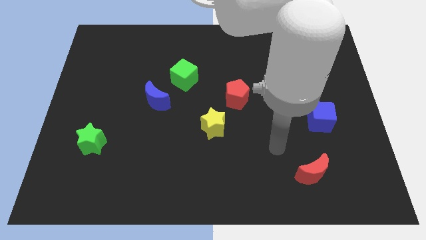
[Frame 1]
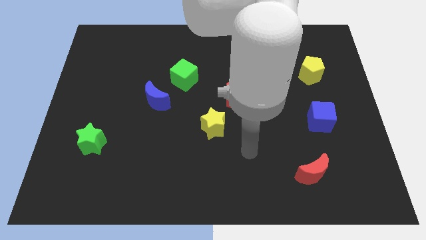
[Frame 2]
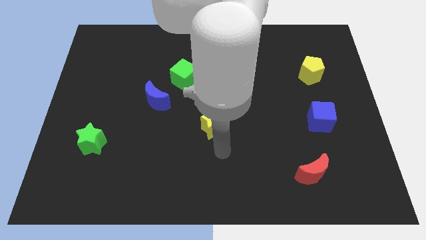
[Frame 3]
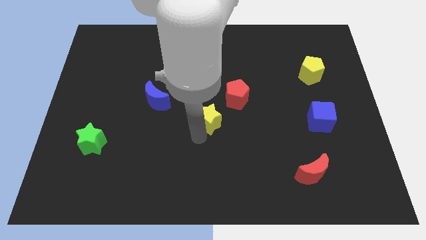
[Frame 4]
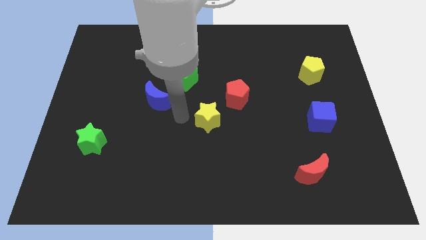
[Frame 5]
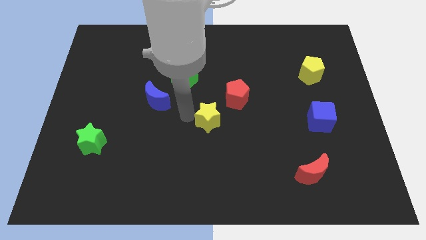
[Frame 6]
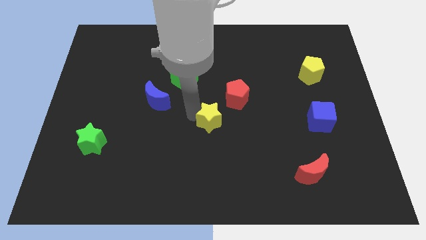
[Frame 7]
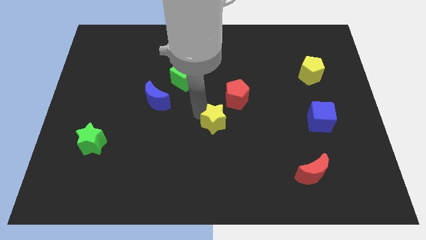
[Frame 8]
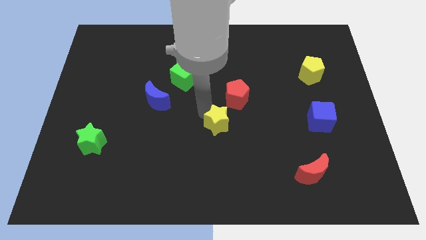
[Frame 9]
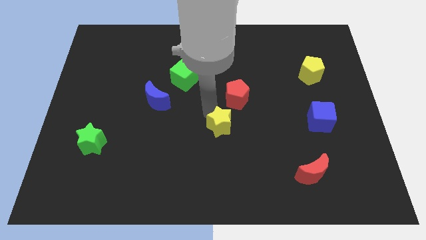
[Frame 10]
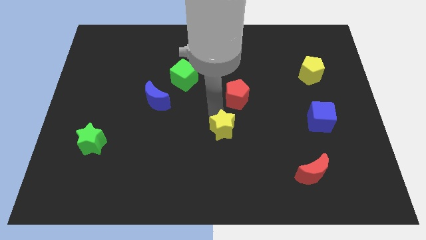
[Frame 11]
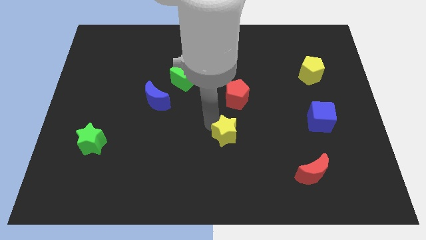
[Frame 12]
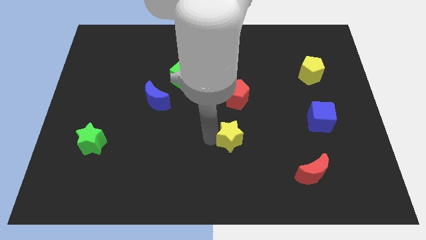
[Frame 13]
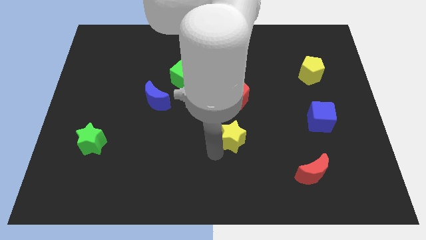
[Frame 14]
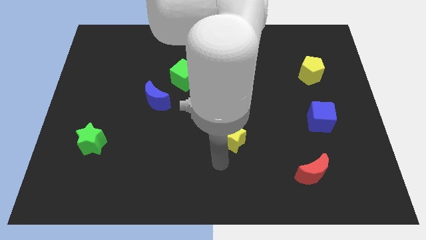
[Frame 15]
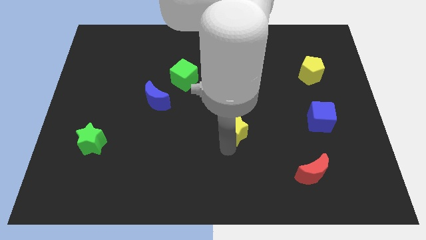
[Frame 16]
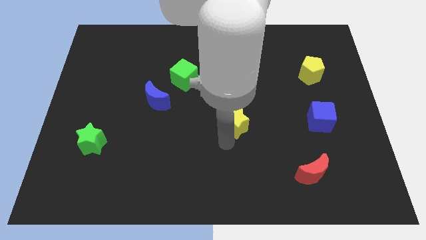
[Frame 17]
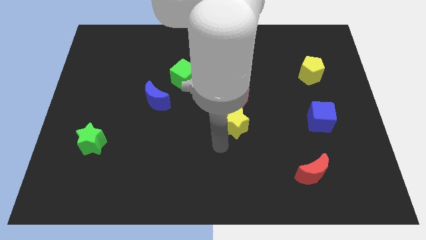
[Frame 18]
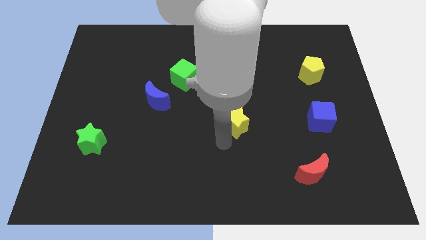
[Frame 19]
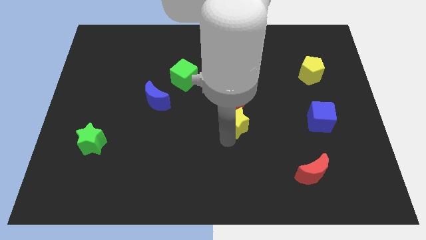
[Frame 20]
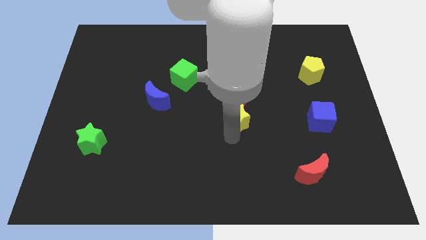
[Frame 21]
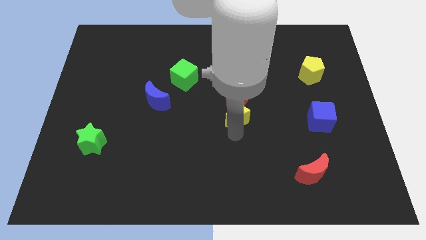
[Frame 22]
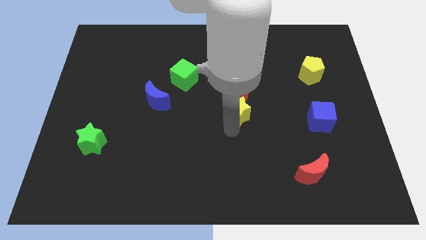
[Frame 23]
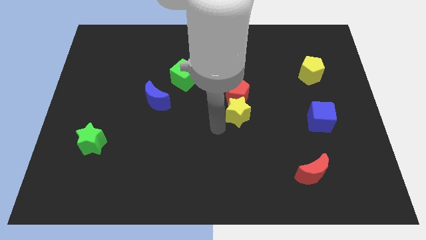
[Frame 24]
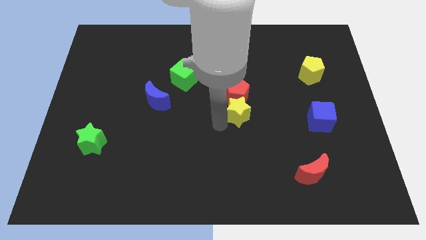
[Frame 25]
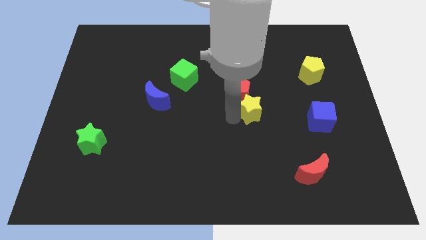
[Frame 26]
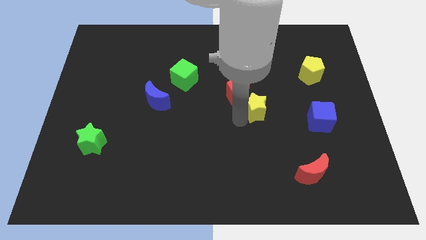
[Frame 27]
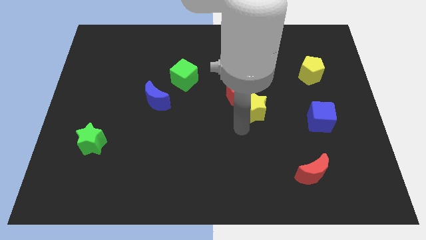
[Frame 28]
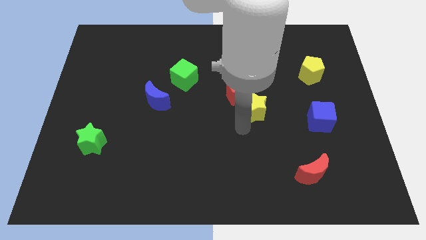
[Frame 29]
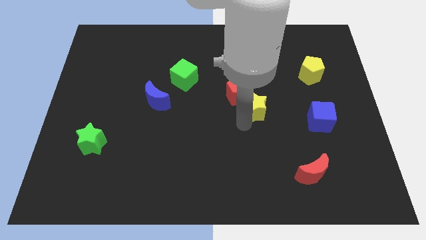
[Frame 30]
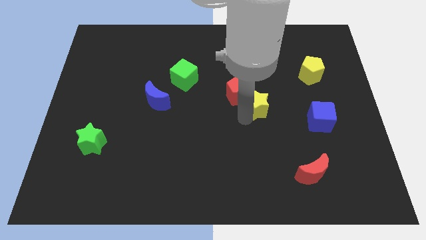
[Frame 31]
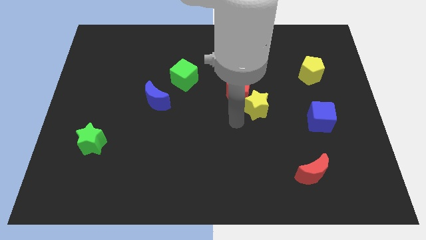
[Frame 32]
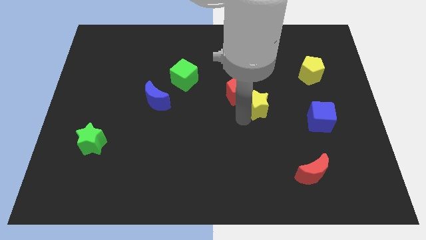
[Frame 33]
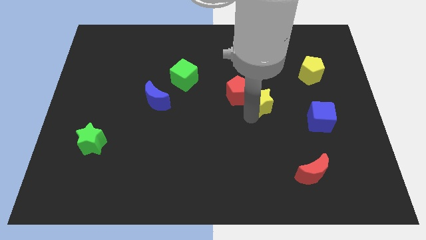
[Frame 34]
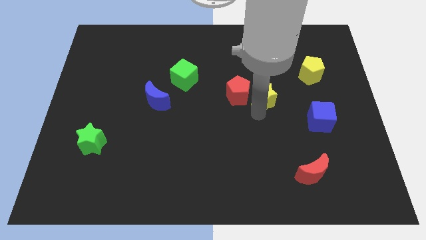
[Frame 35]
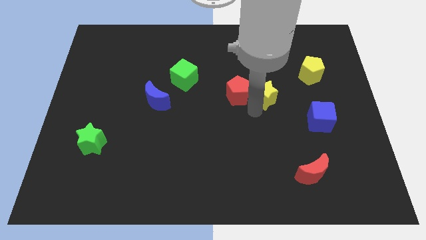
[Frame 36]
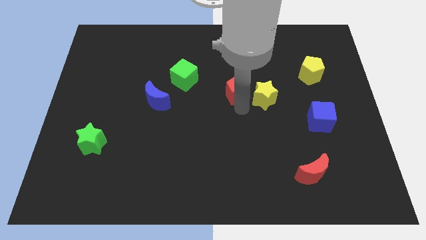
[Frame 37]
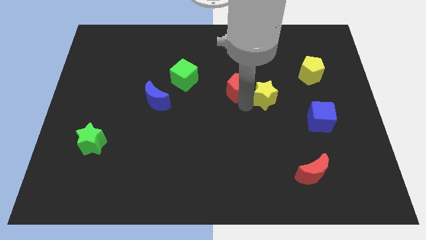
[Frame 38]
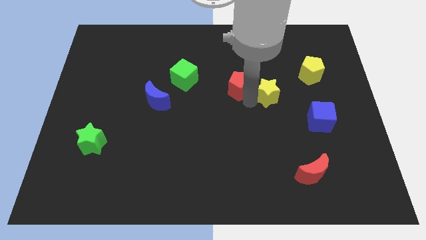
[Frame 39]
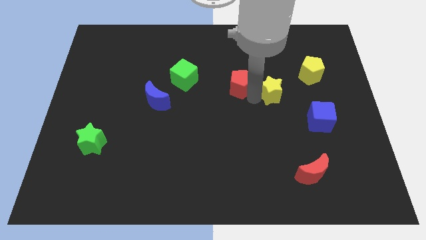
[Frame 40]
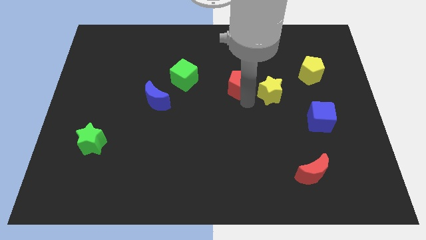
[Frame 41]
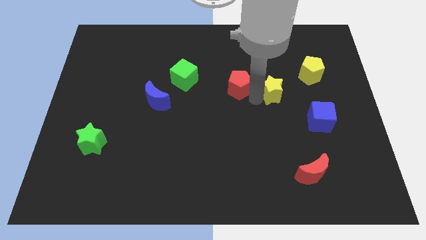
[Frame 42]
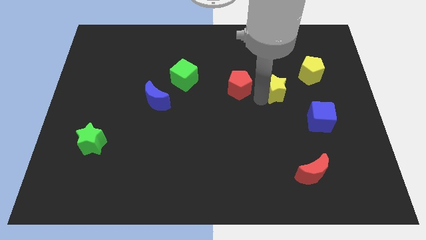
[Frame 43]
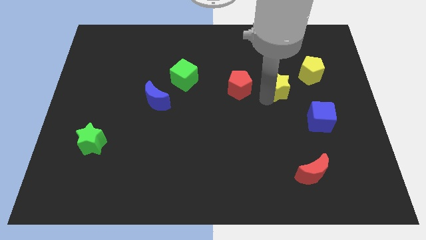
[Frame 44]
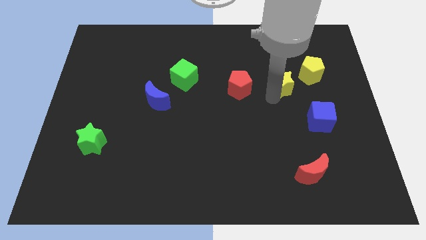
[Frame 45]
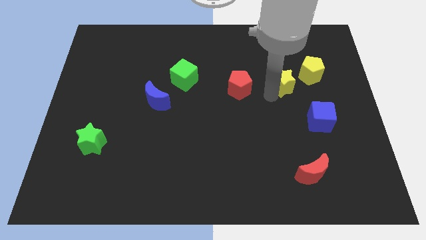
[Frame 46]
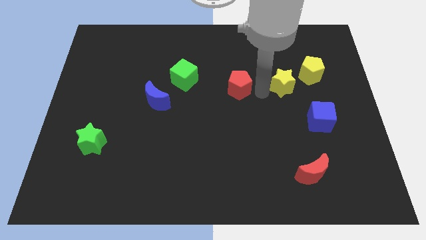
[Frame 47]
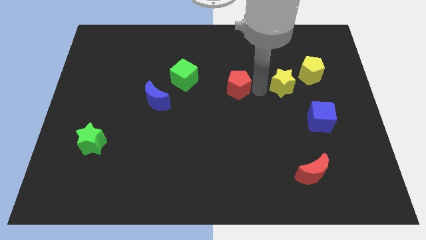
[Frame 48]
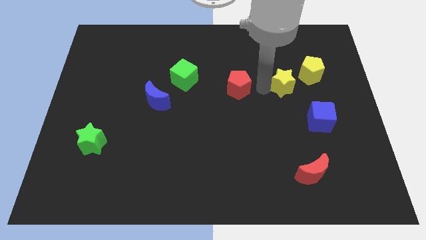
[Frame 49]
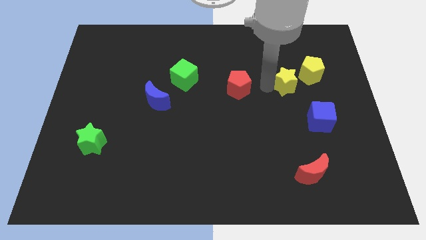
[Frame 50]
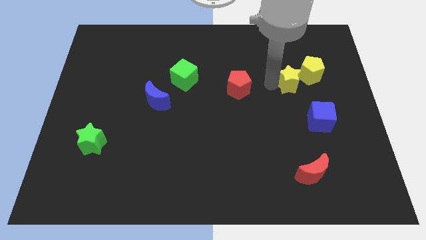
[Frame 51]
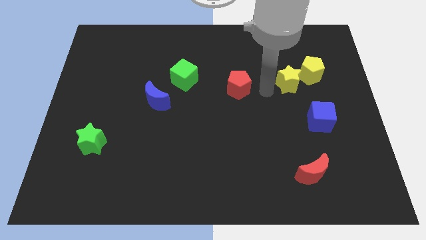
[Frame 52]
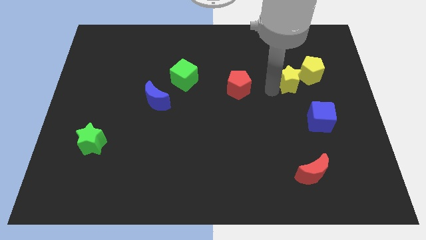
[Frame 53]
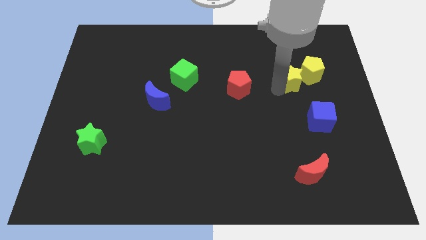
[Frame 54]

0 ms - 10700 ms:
slide the yellow star towards the yellow pentagon

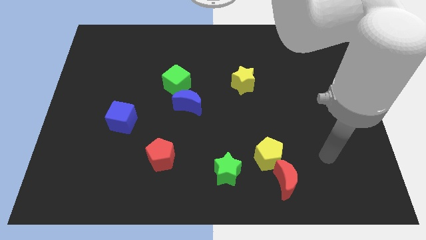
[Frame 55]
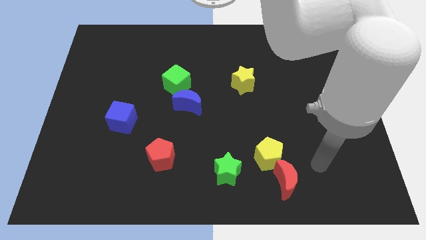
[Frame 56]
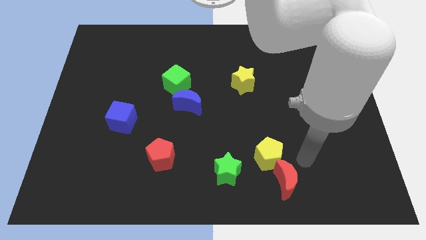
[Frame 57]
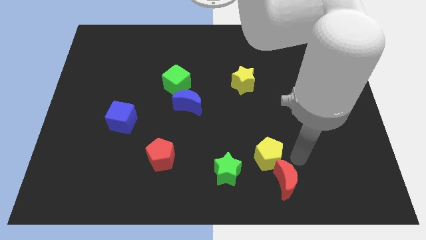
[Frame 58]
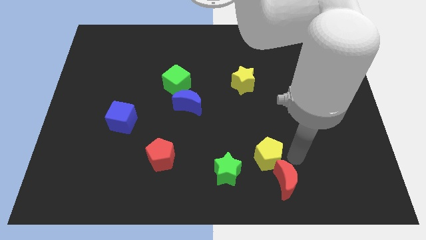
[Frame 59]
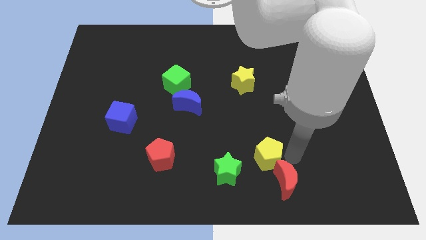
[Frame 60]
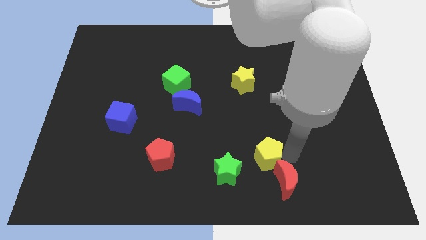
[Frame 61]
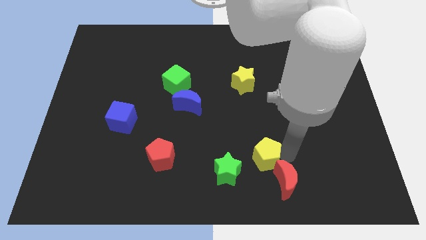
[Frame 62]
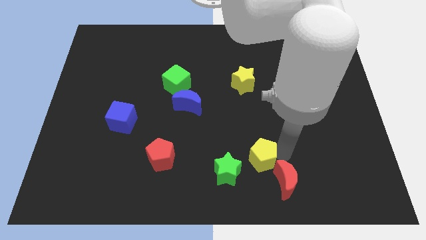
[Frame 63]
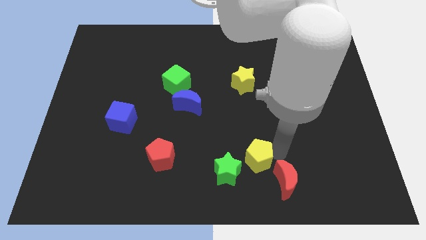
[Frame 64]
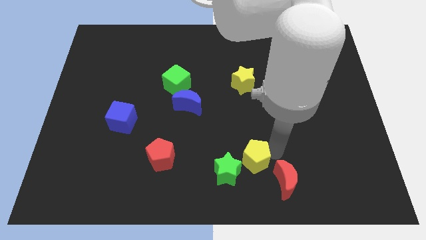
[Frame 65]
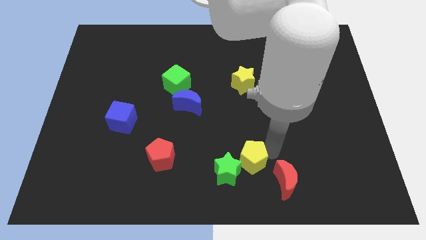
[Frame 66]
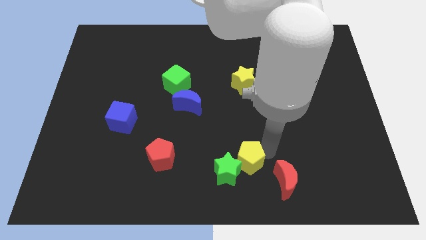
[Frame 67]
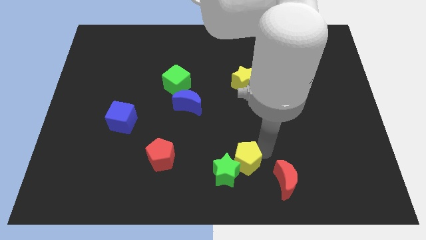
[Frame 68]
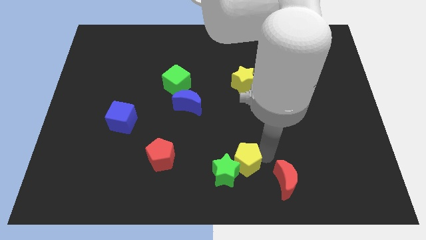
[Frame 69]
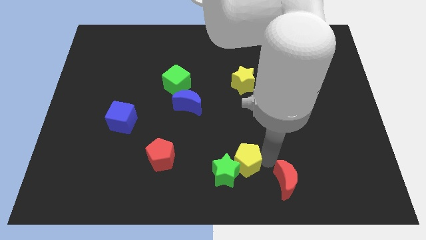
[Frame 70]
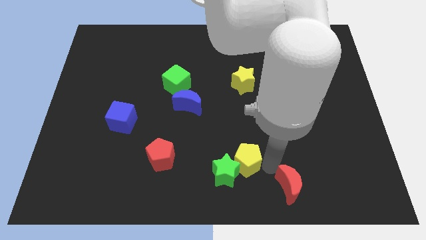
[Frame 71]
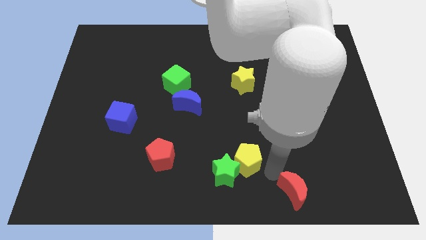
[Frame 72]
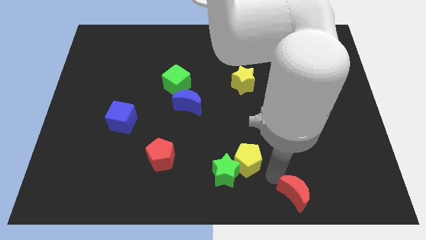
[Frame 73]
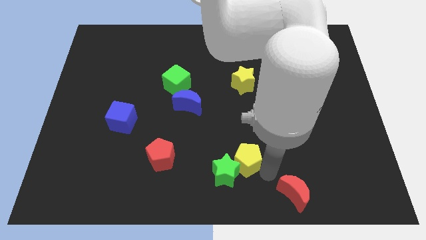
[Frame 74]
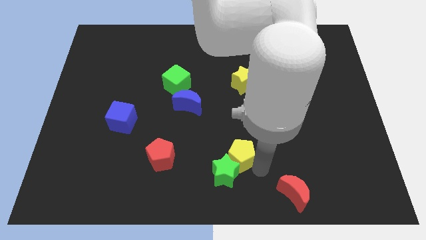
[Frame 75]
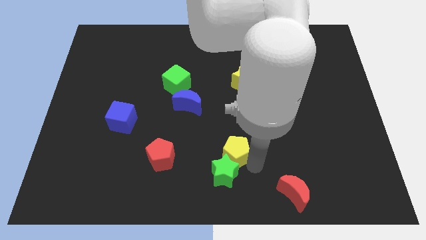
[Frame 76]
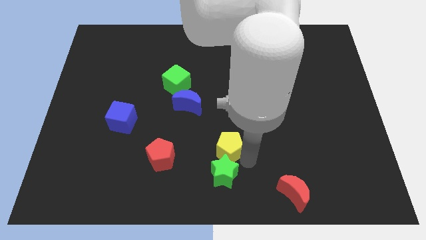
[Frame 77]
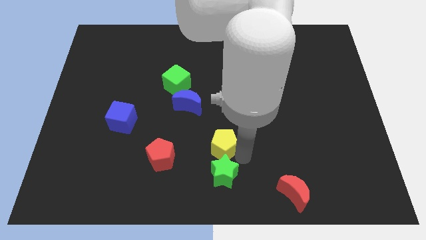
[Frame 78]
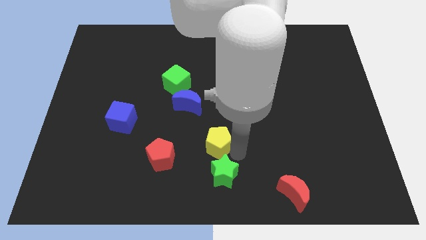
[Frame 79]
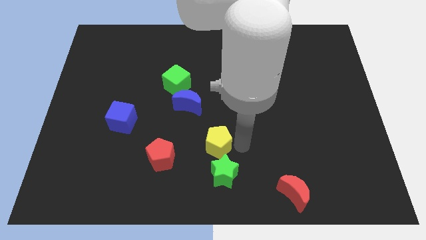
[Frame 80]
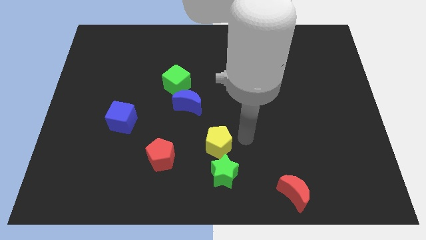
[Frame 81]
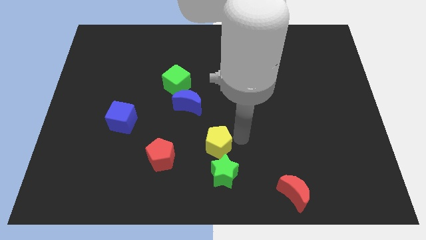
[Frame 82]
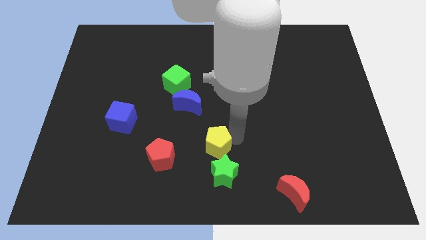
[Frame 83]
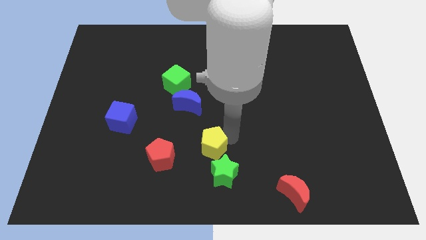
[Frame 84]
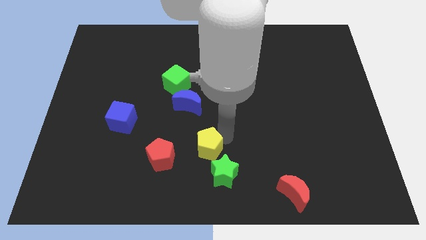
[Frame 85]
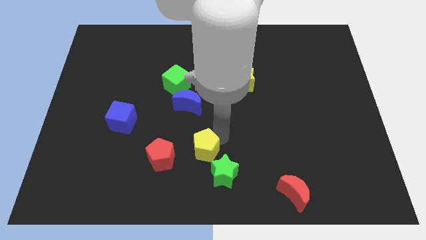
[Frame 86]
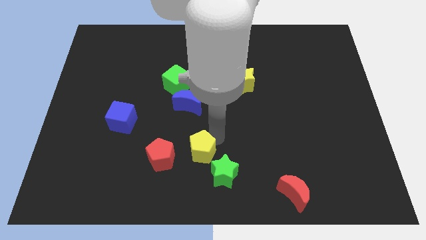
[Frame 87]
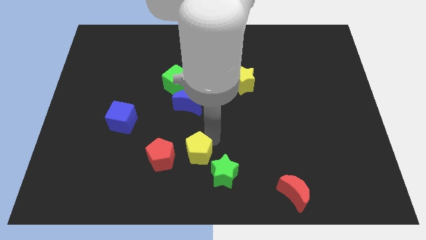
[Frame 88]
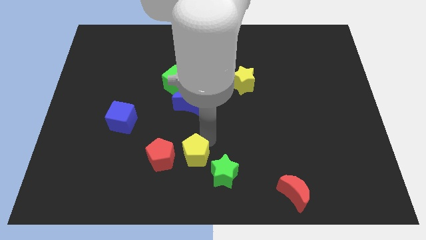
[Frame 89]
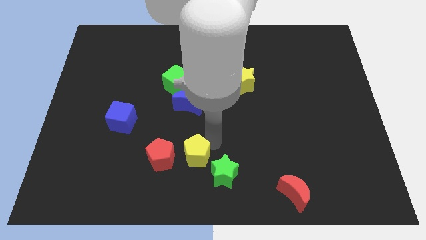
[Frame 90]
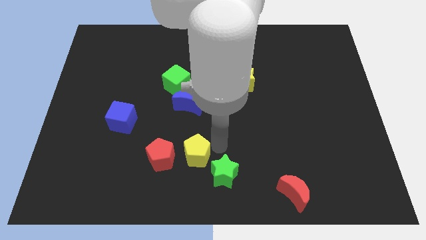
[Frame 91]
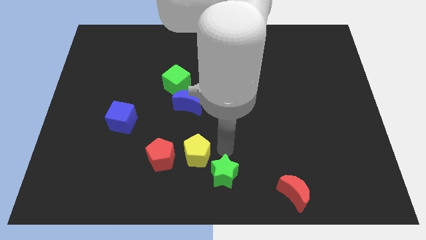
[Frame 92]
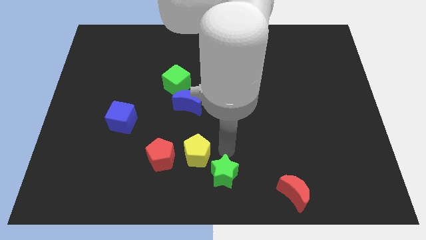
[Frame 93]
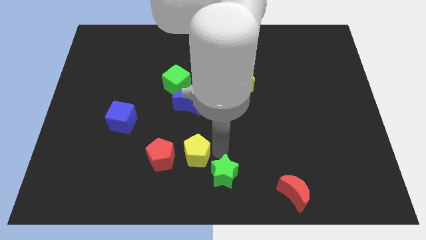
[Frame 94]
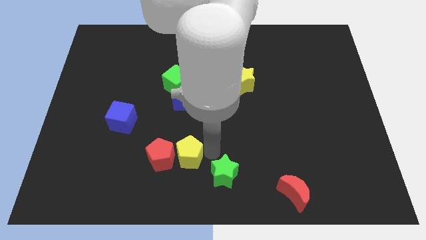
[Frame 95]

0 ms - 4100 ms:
put the yellow pentagon towards the red pentagon
